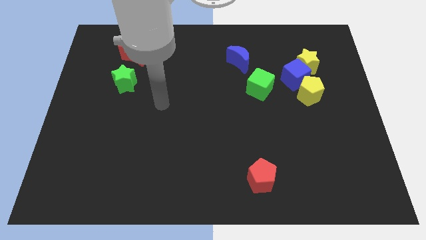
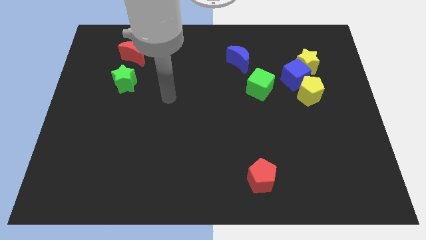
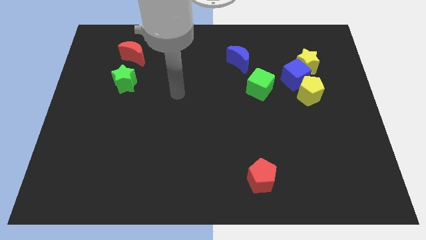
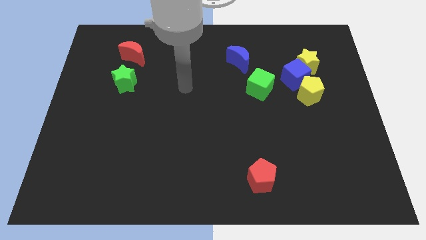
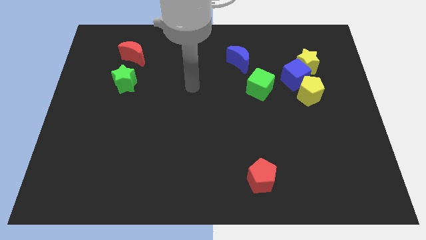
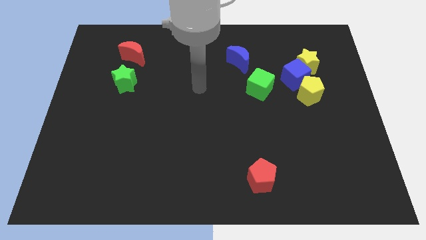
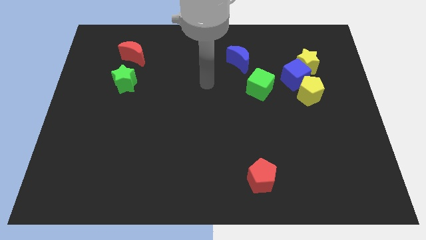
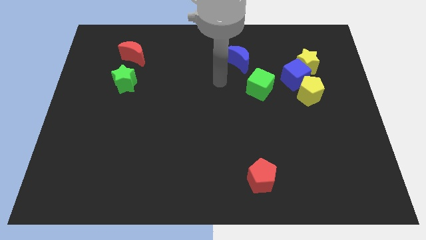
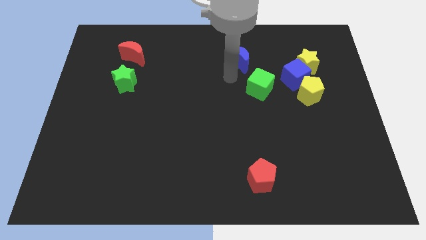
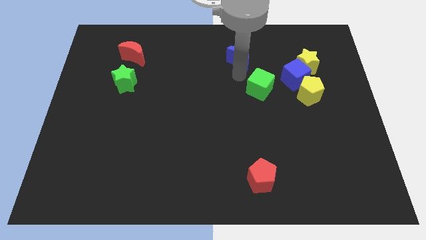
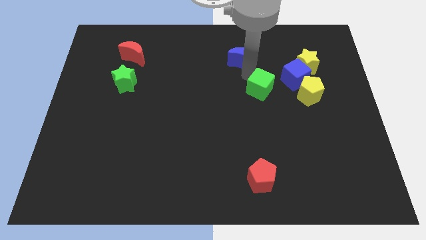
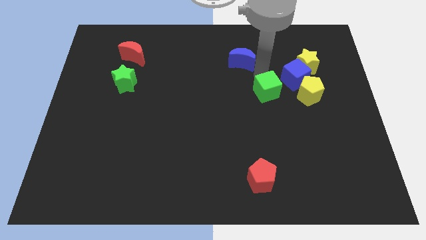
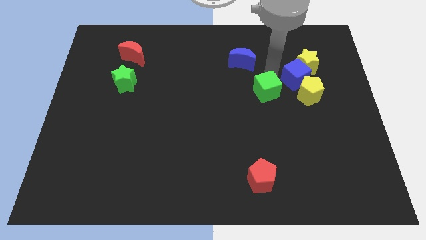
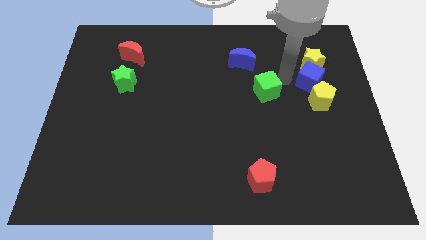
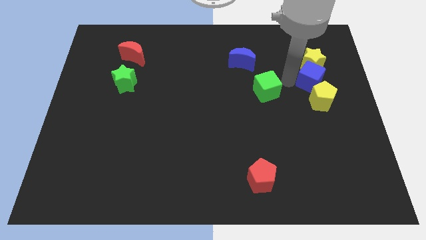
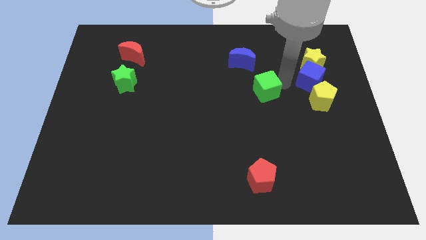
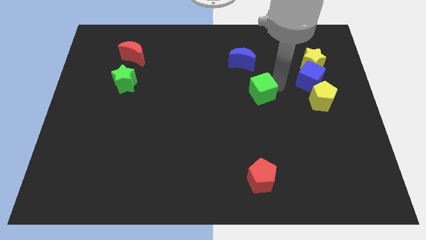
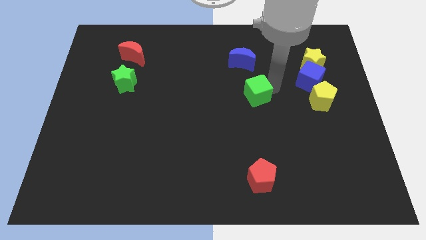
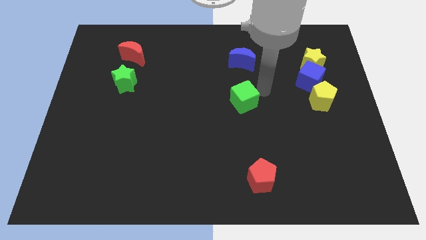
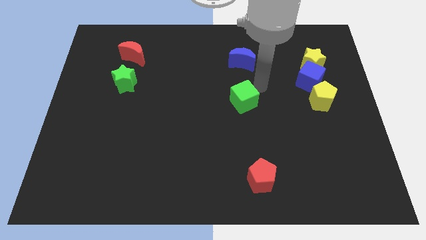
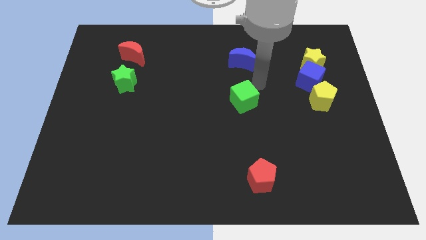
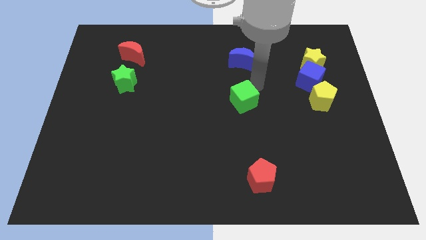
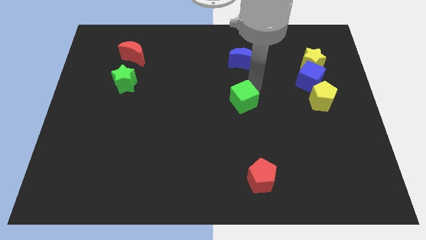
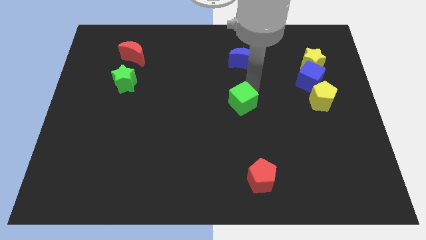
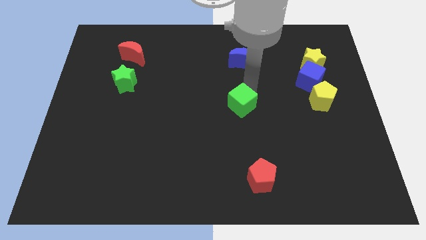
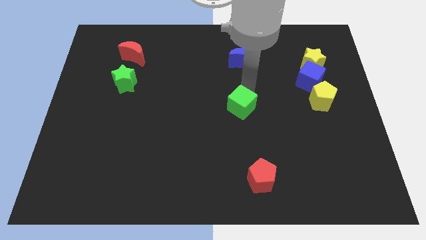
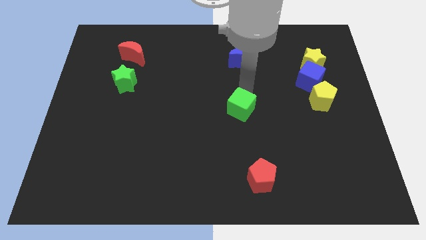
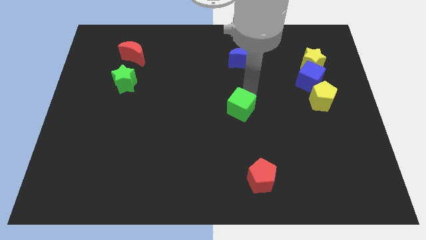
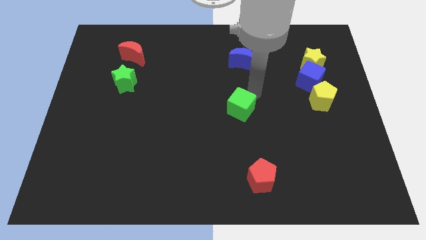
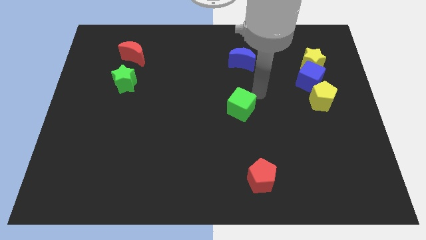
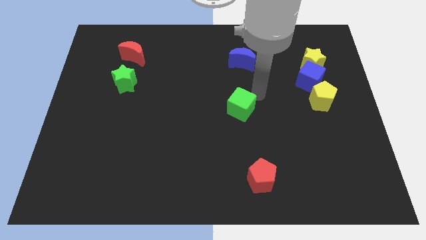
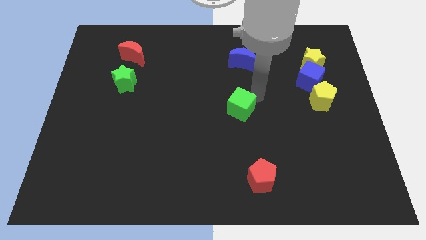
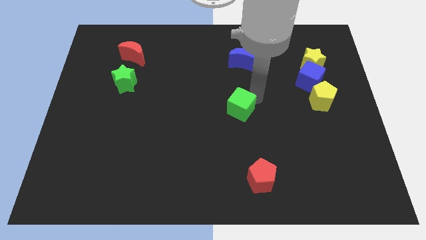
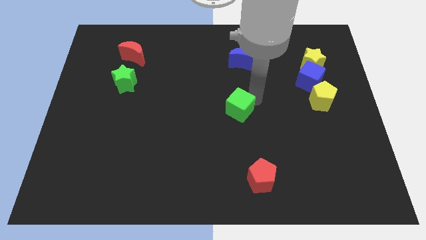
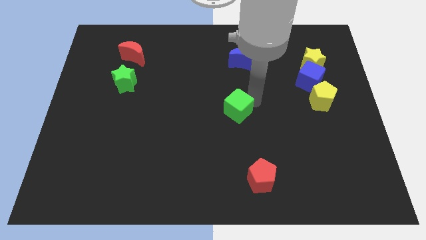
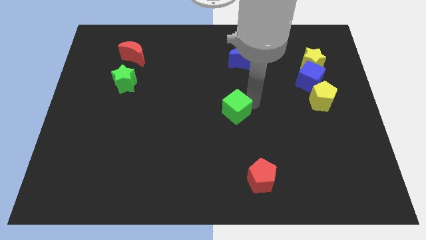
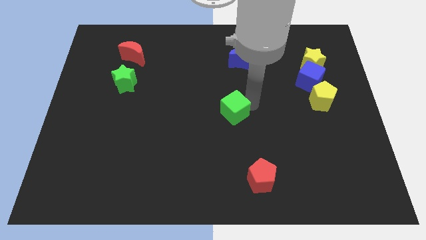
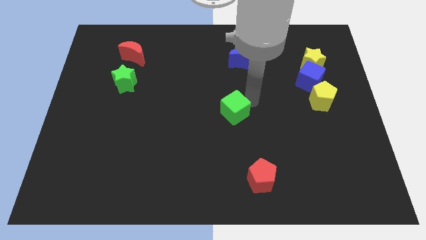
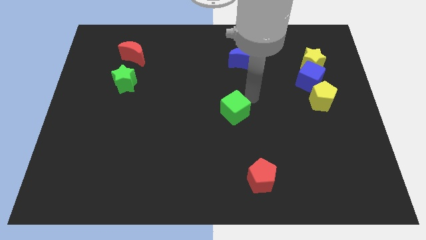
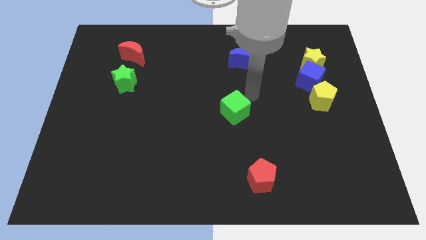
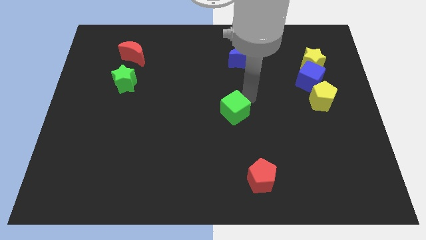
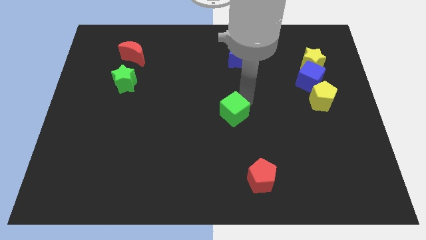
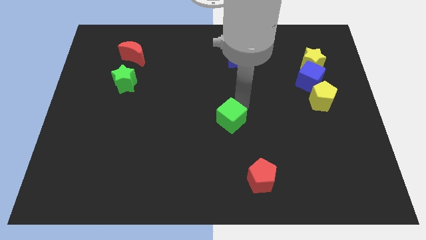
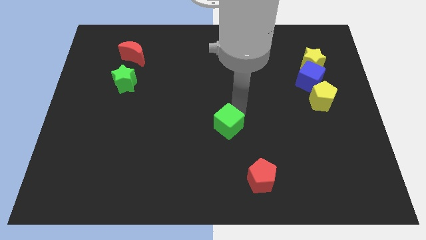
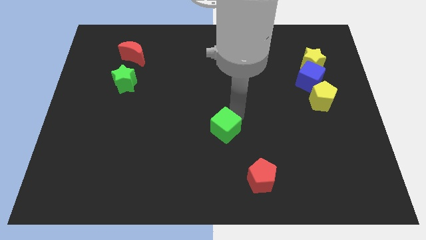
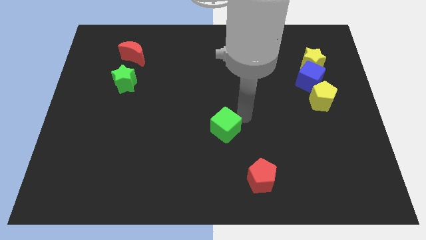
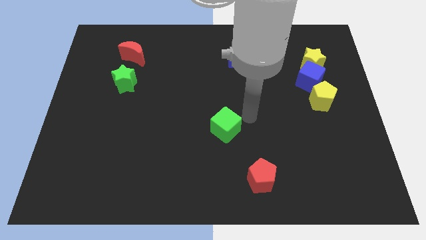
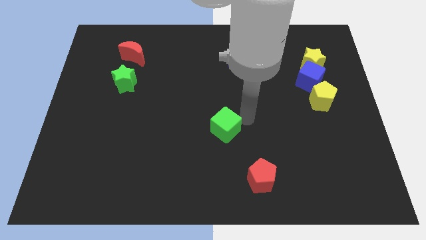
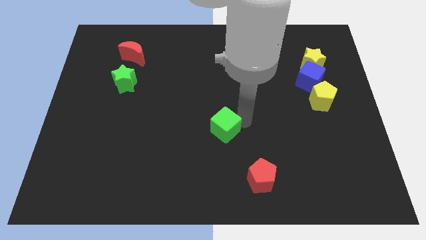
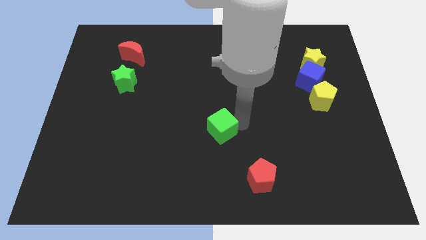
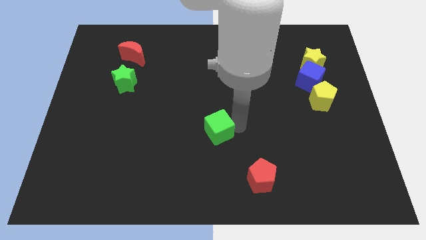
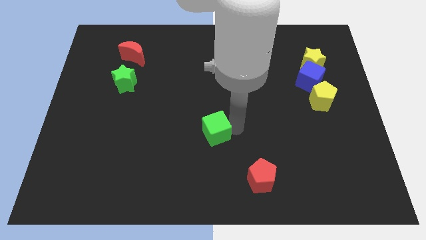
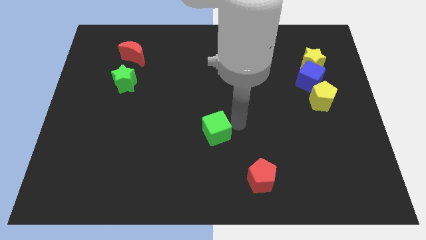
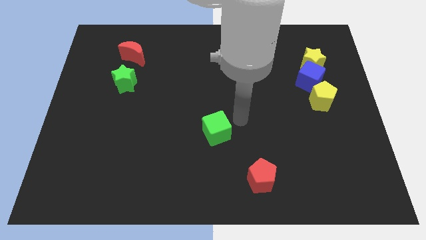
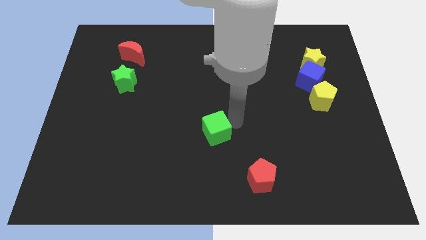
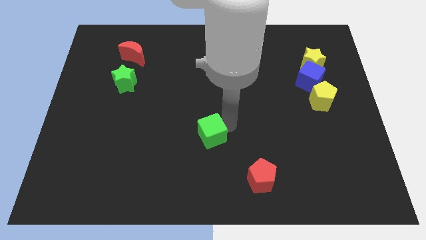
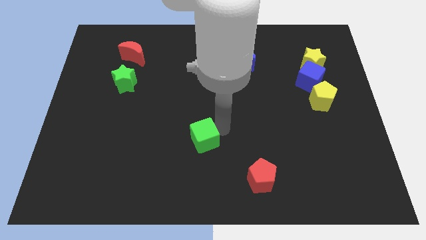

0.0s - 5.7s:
move the green cube down and left

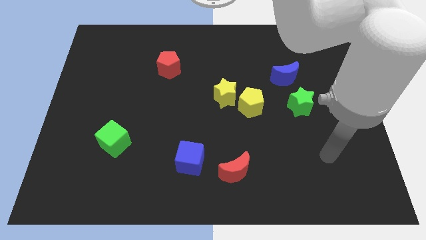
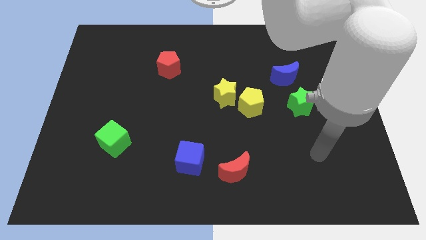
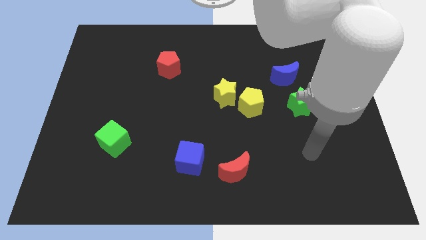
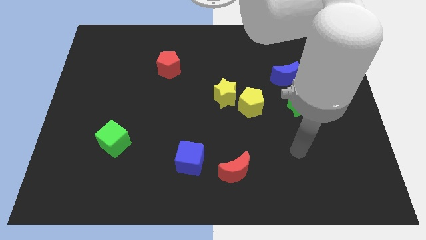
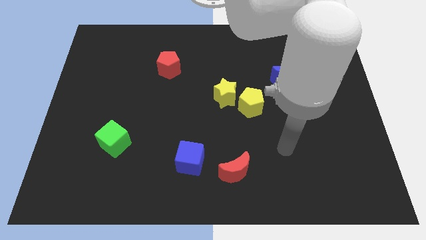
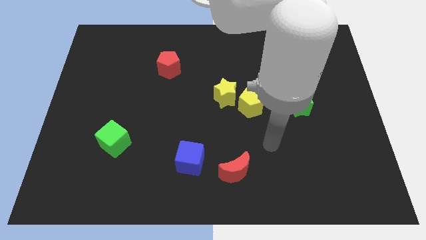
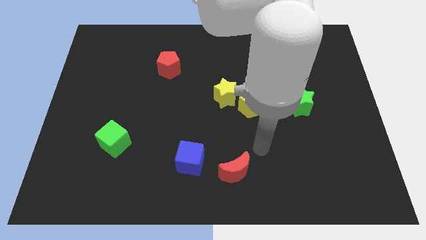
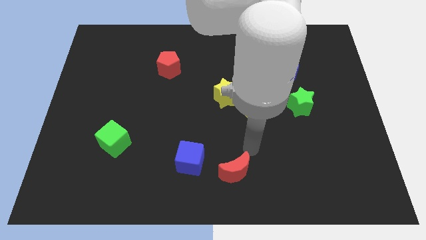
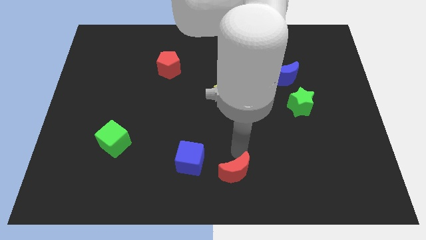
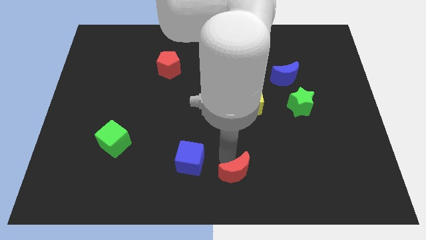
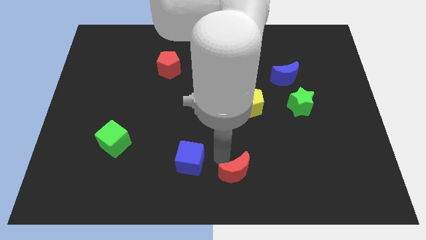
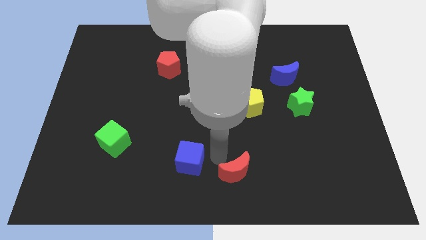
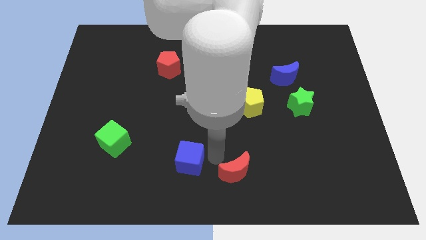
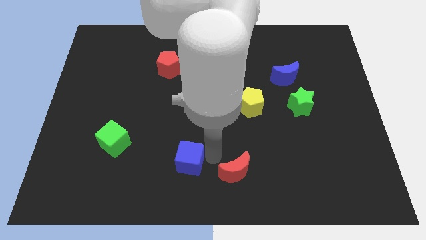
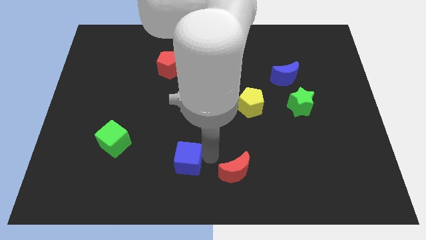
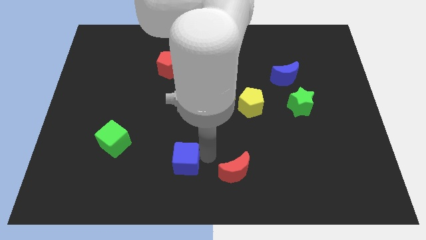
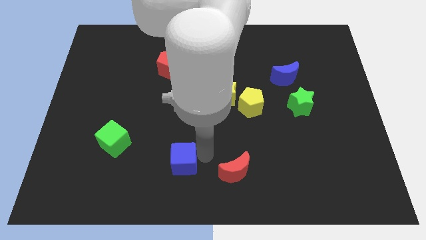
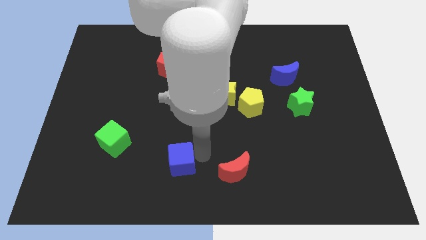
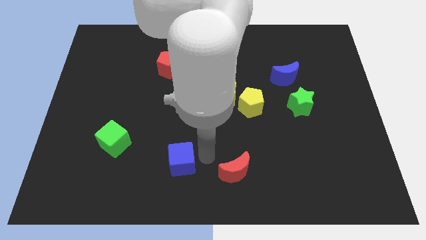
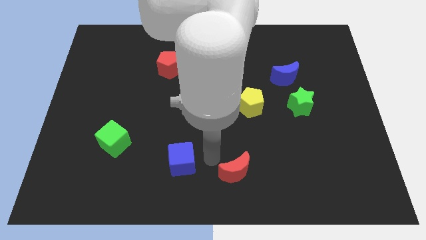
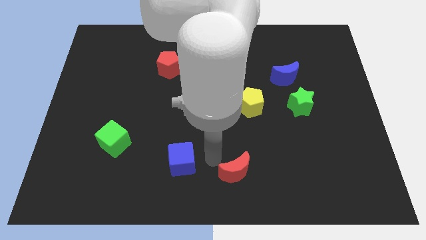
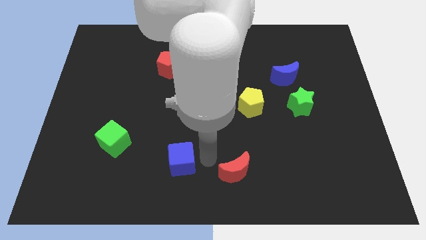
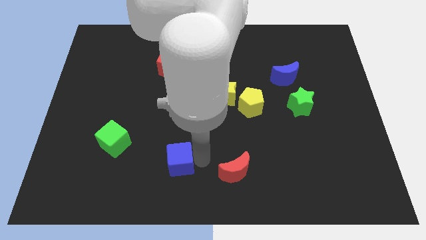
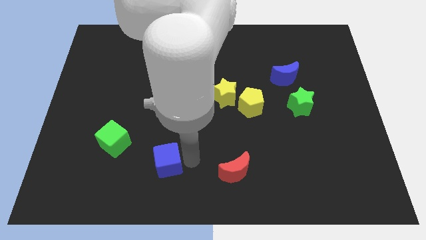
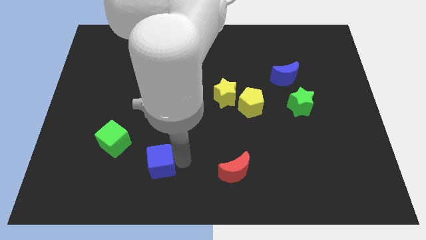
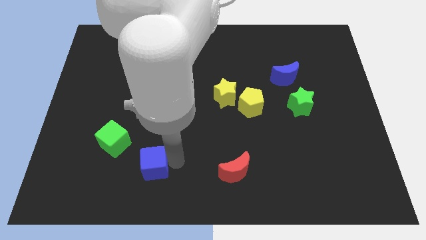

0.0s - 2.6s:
move the blue cube somewhat left
